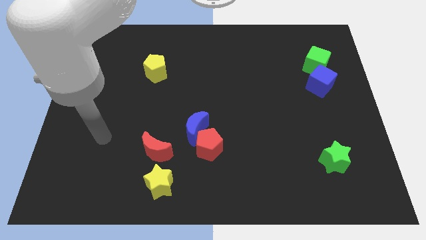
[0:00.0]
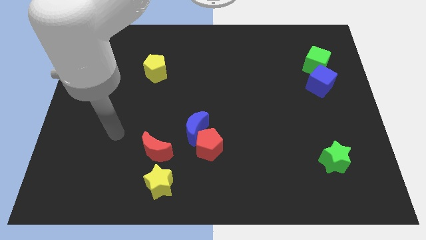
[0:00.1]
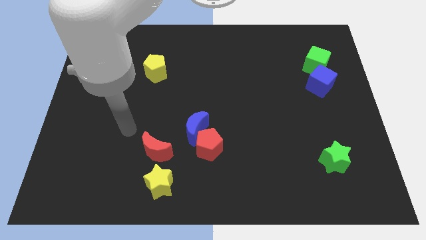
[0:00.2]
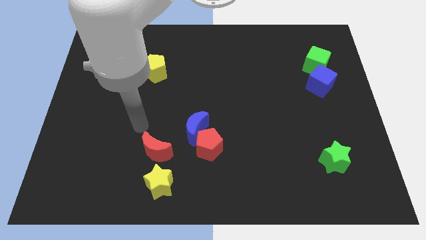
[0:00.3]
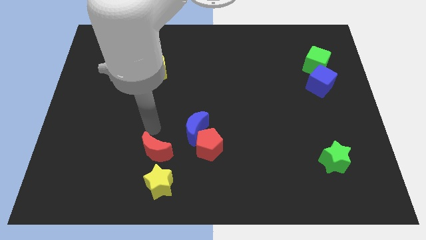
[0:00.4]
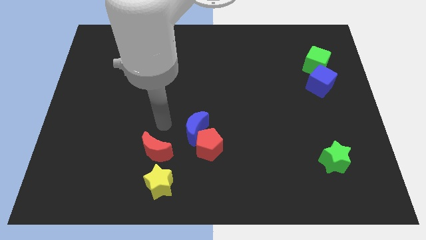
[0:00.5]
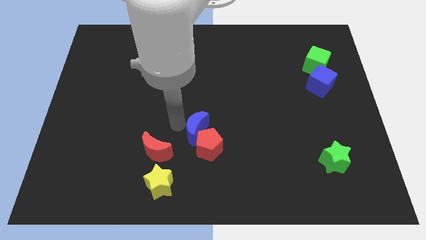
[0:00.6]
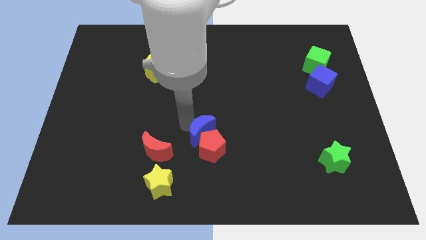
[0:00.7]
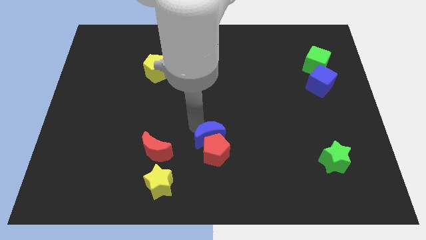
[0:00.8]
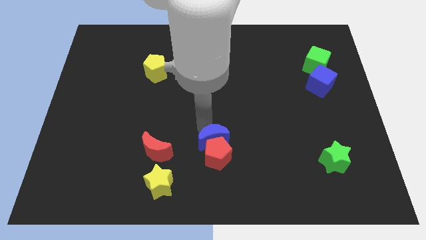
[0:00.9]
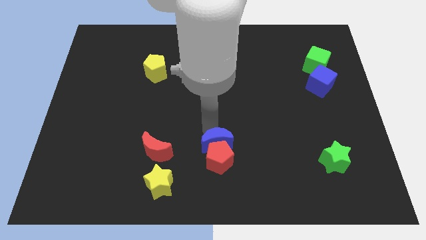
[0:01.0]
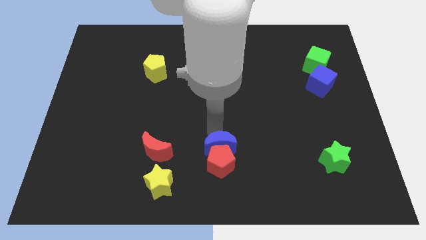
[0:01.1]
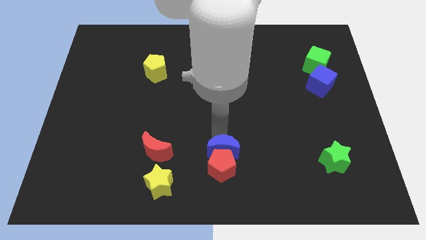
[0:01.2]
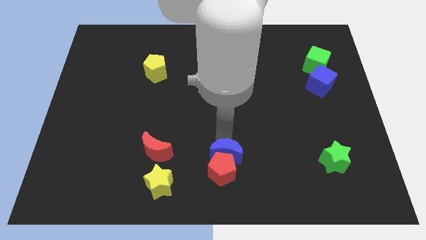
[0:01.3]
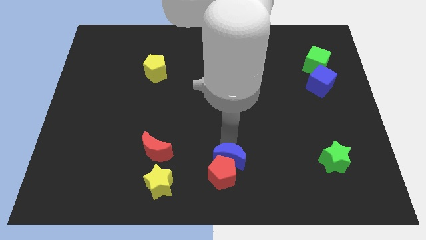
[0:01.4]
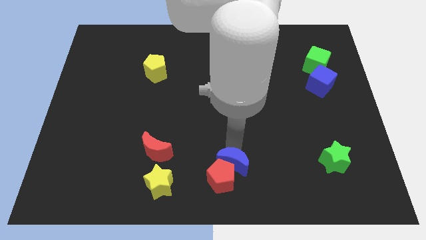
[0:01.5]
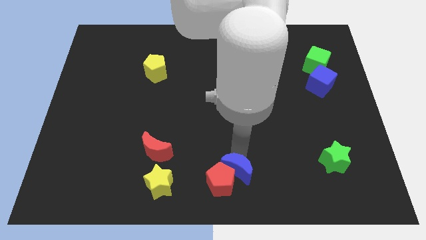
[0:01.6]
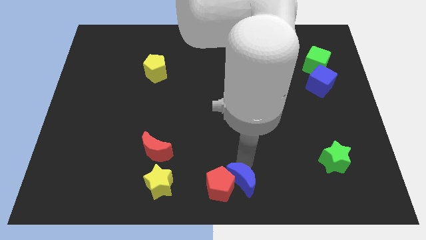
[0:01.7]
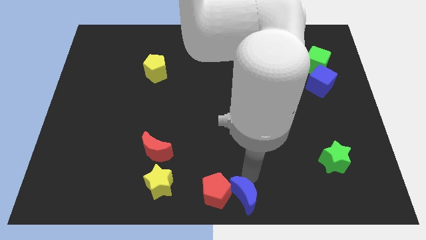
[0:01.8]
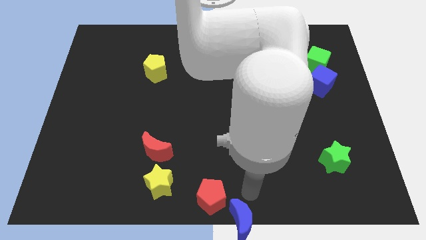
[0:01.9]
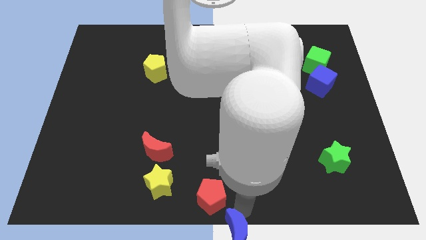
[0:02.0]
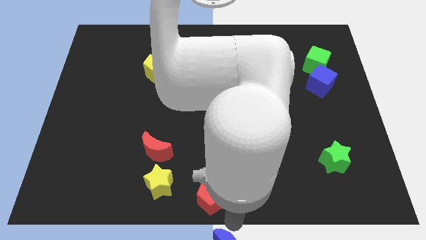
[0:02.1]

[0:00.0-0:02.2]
move the red pentagon away from the blue moon

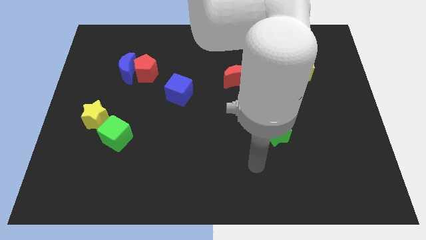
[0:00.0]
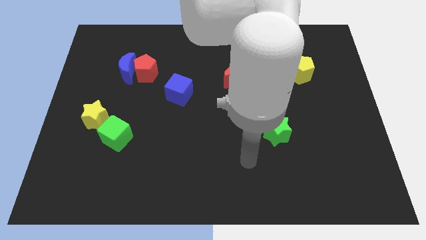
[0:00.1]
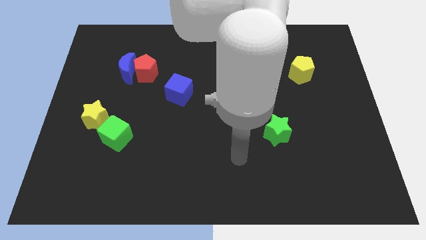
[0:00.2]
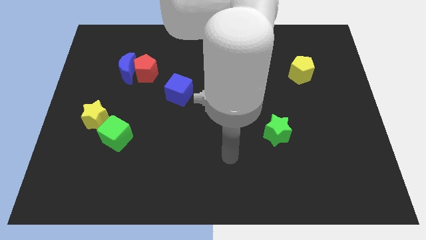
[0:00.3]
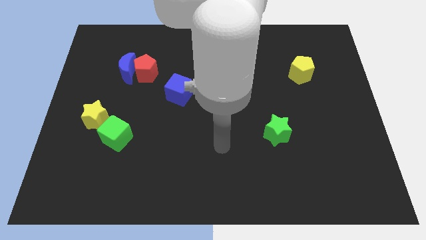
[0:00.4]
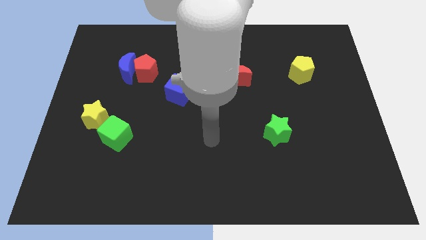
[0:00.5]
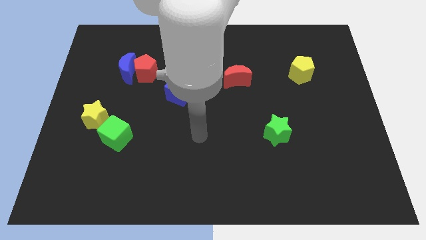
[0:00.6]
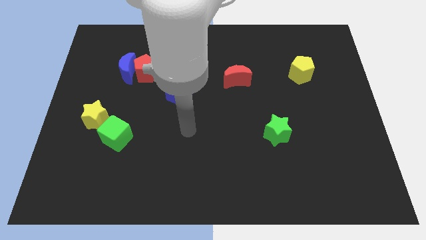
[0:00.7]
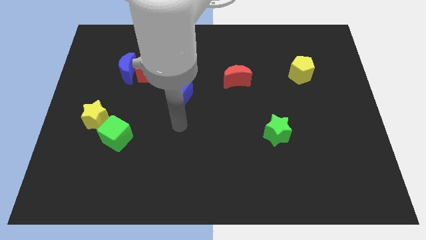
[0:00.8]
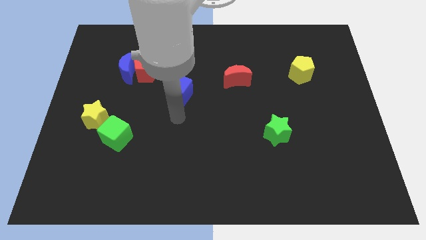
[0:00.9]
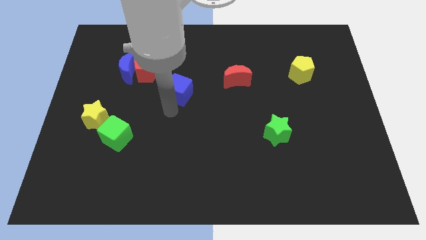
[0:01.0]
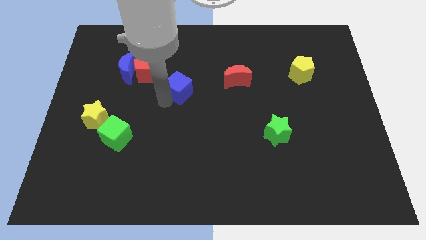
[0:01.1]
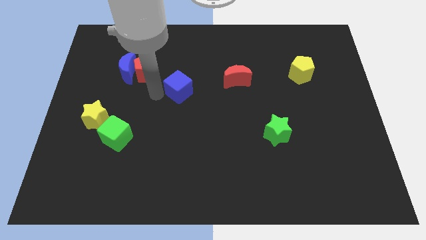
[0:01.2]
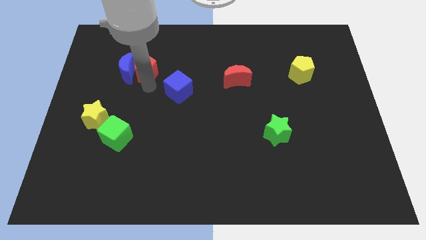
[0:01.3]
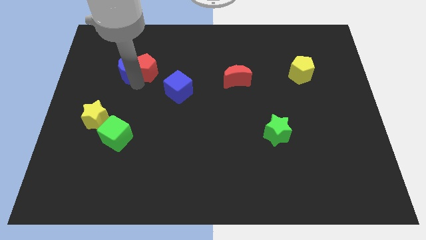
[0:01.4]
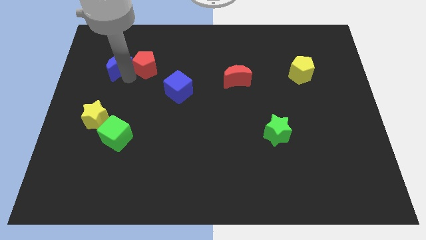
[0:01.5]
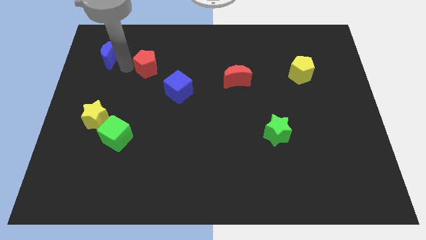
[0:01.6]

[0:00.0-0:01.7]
separate the red pentagon from the blue moon

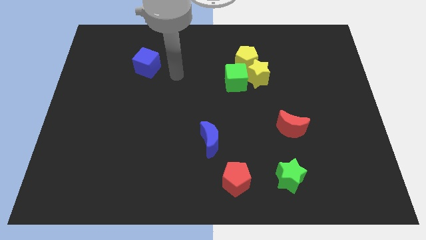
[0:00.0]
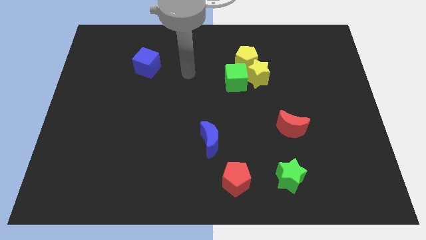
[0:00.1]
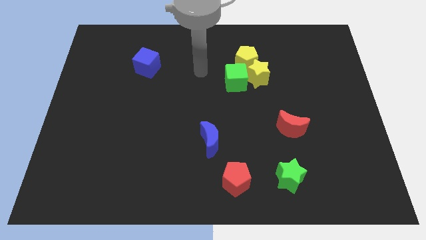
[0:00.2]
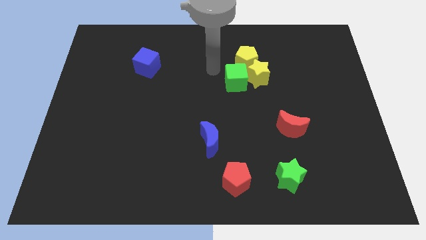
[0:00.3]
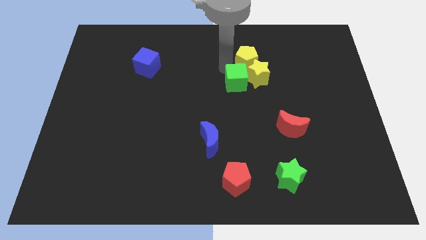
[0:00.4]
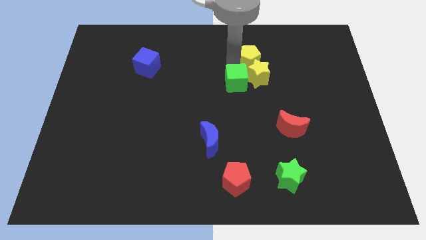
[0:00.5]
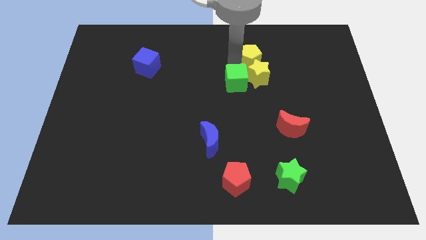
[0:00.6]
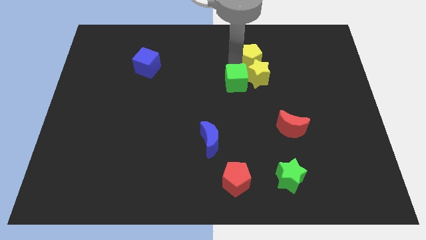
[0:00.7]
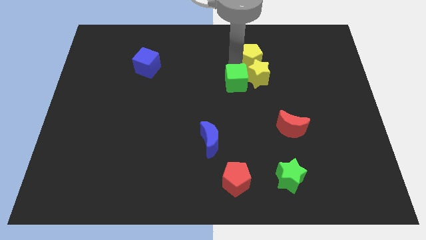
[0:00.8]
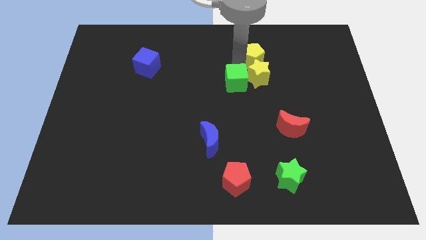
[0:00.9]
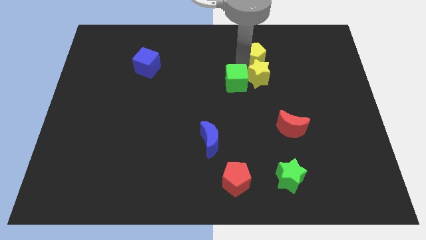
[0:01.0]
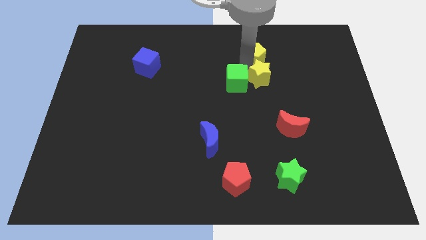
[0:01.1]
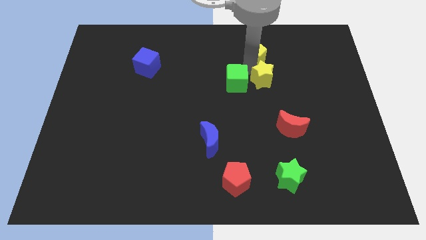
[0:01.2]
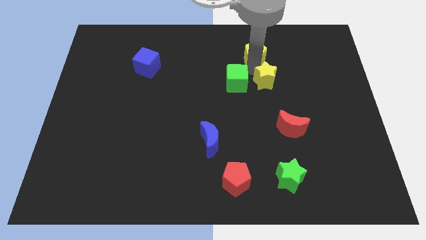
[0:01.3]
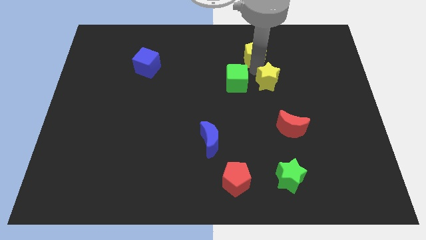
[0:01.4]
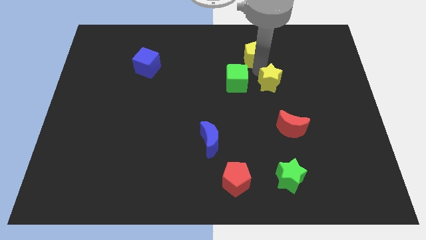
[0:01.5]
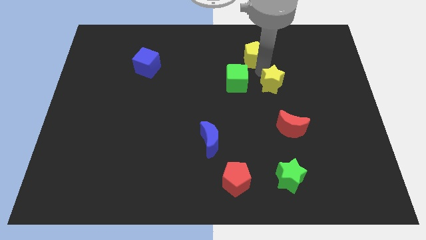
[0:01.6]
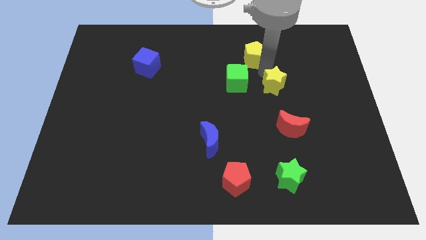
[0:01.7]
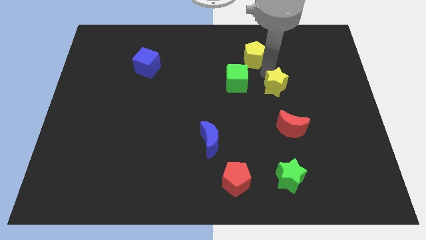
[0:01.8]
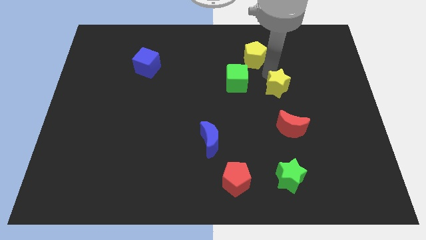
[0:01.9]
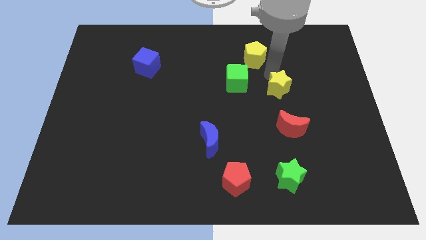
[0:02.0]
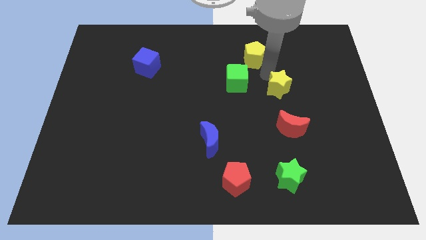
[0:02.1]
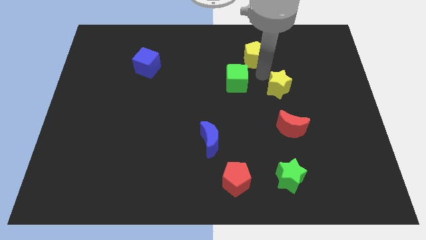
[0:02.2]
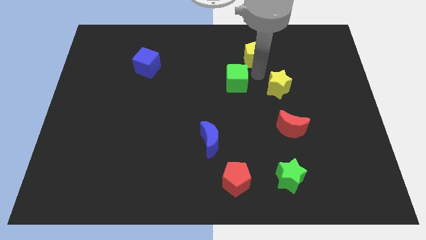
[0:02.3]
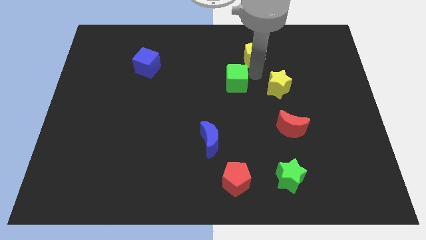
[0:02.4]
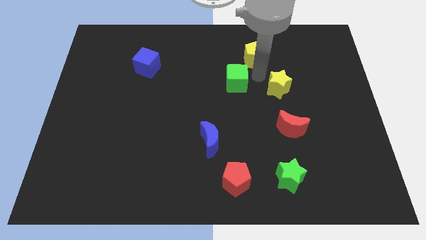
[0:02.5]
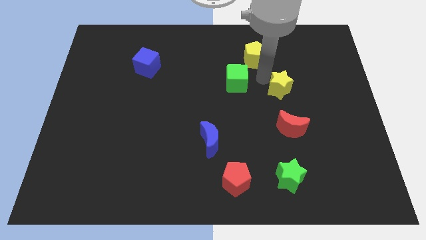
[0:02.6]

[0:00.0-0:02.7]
pull the yellow star apart from the green cube and yellow pentagon

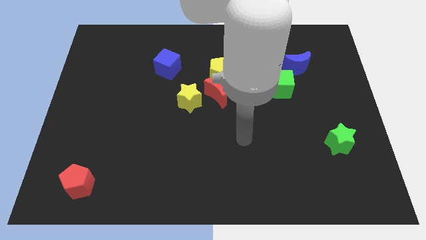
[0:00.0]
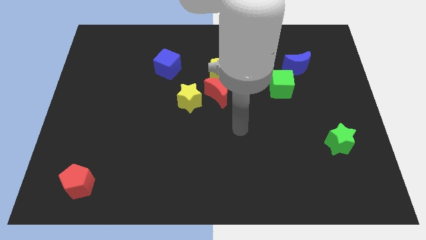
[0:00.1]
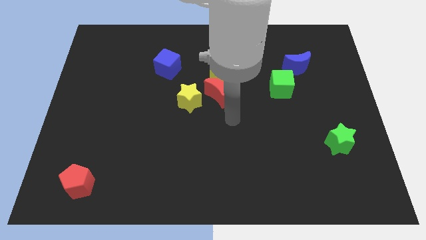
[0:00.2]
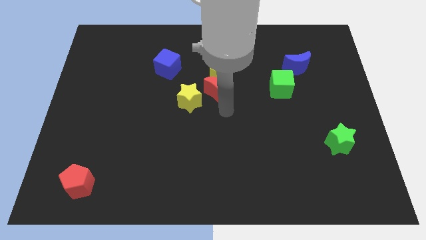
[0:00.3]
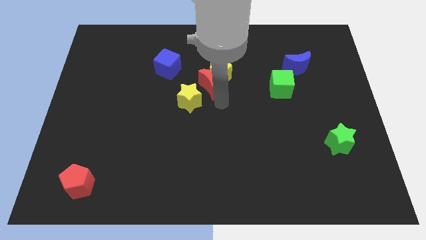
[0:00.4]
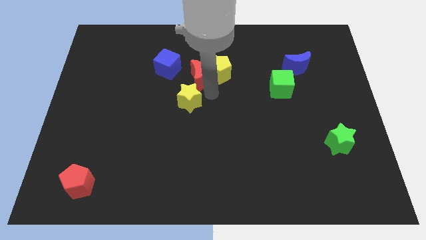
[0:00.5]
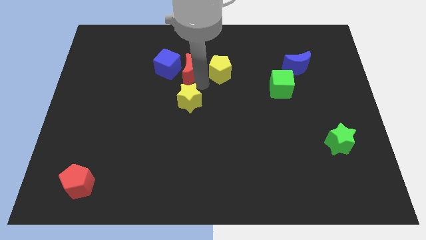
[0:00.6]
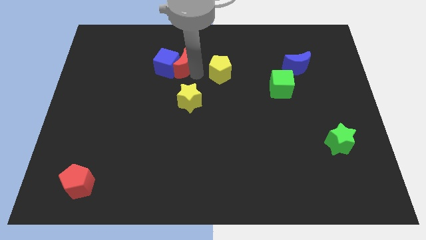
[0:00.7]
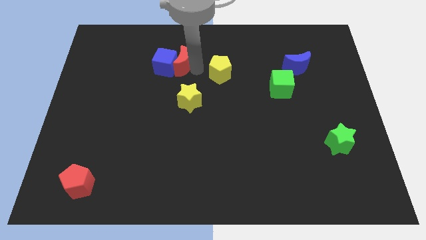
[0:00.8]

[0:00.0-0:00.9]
pull the yellow pentagon apart from the red moon

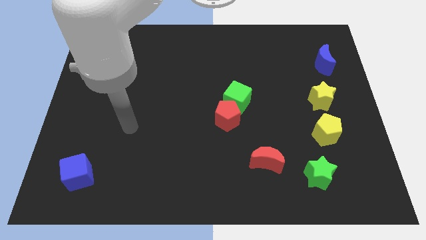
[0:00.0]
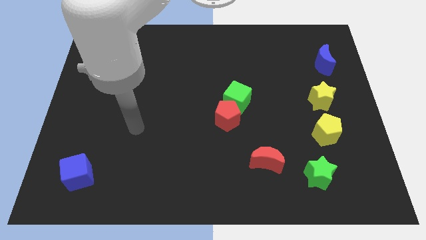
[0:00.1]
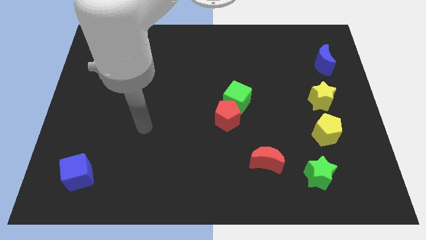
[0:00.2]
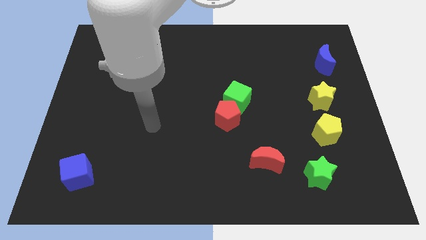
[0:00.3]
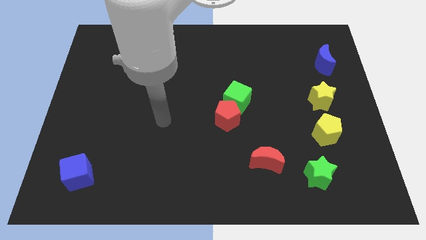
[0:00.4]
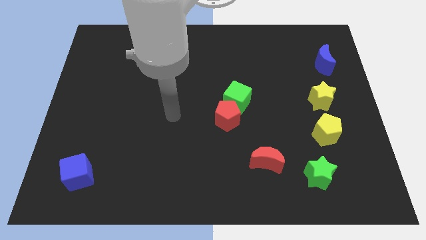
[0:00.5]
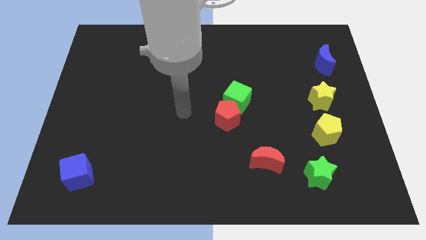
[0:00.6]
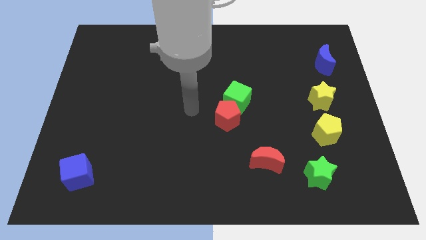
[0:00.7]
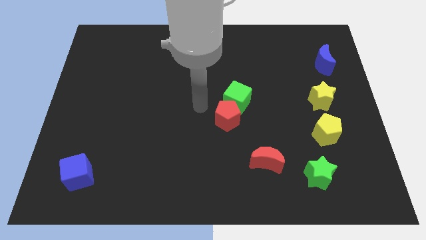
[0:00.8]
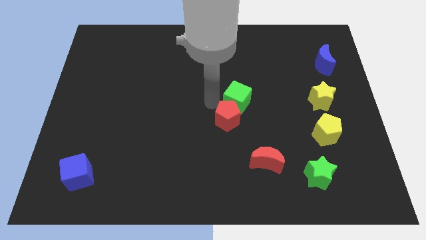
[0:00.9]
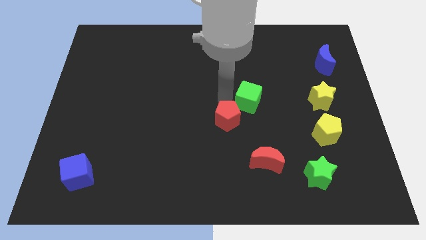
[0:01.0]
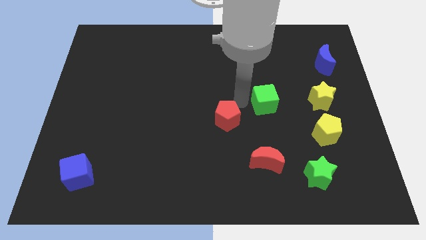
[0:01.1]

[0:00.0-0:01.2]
move the red pentagon away from the green cube

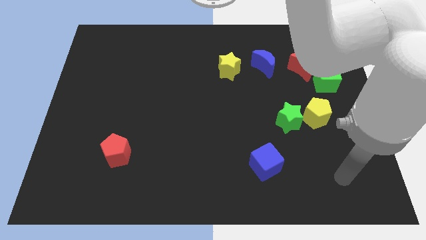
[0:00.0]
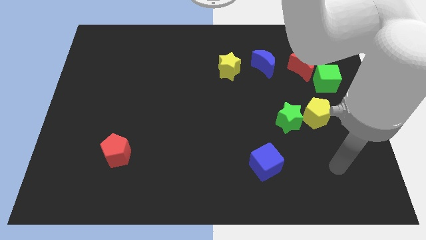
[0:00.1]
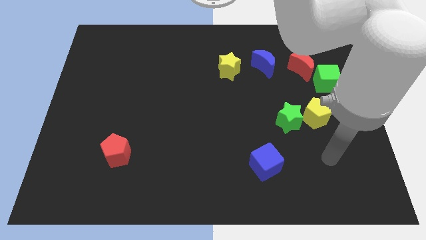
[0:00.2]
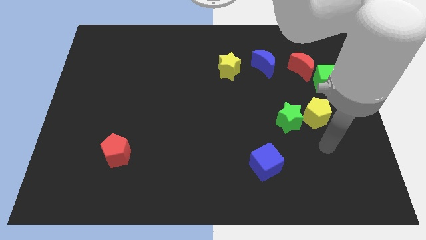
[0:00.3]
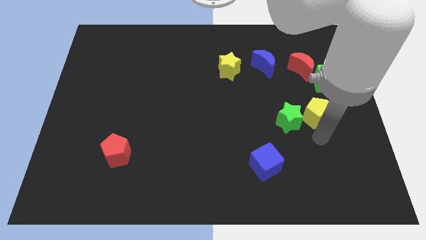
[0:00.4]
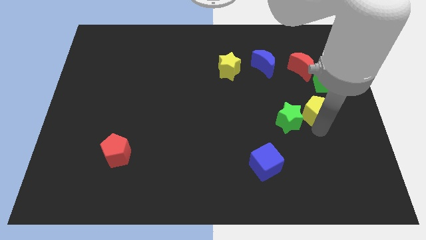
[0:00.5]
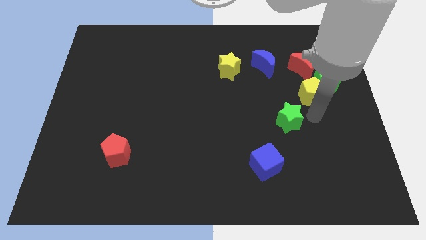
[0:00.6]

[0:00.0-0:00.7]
pull the green star apart from the yellow pentagon
